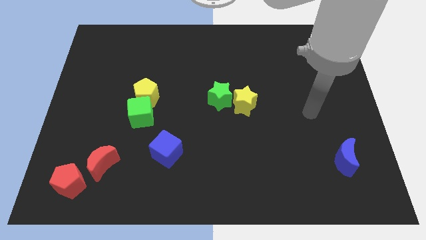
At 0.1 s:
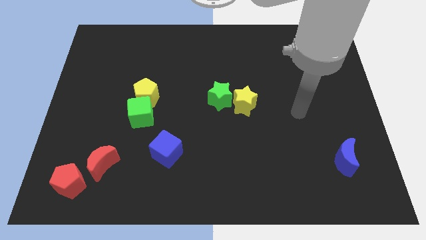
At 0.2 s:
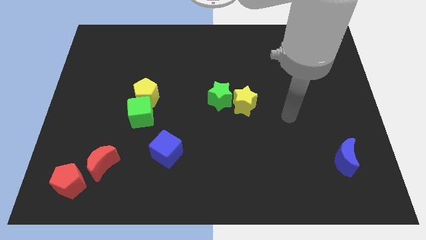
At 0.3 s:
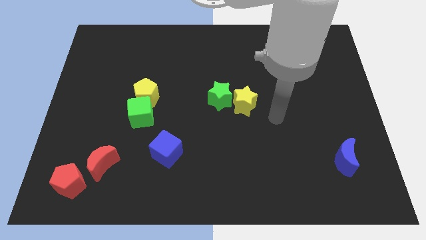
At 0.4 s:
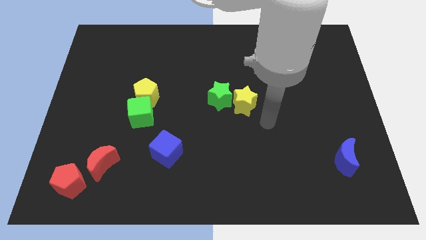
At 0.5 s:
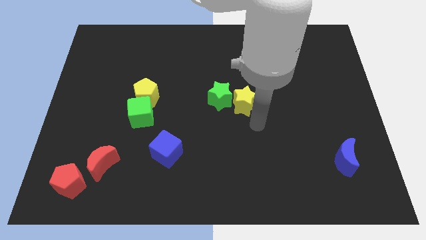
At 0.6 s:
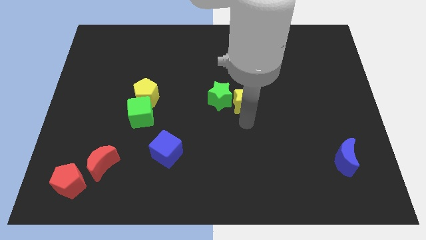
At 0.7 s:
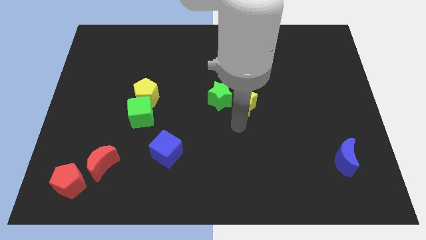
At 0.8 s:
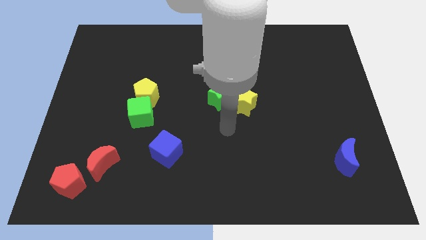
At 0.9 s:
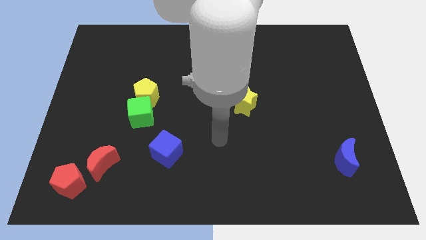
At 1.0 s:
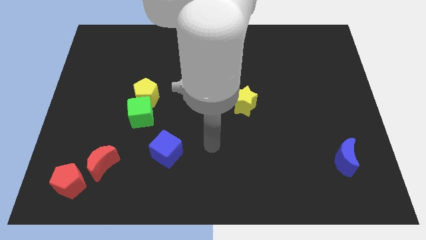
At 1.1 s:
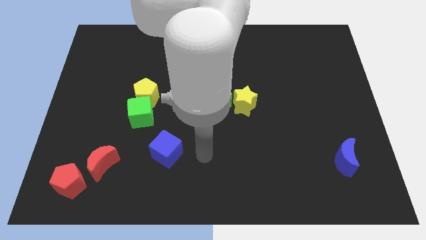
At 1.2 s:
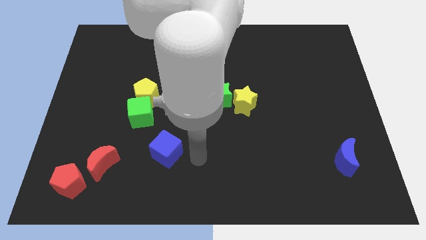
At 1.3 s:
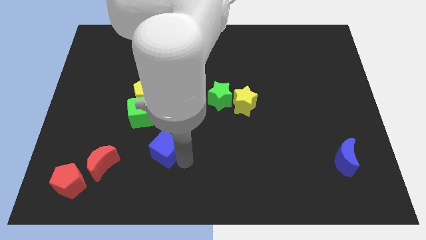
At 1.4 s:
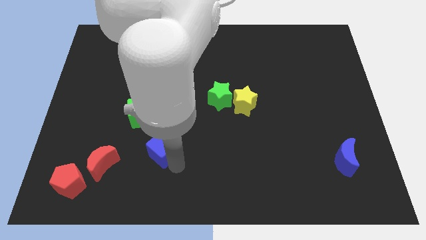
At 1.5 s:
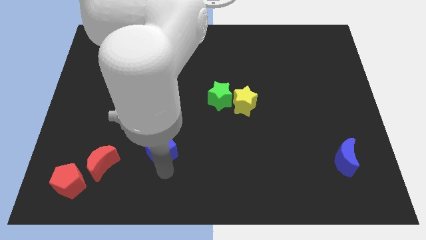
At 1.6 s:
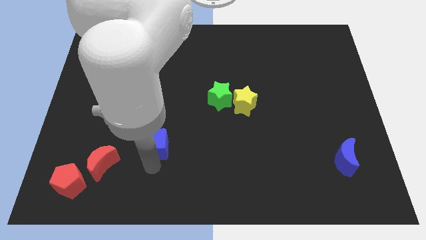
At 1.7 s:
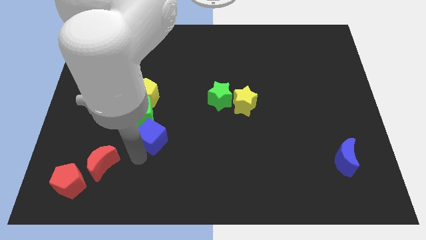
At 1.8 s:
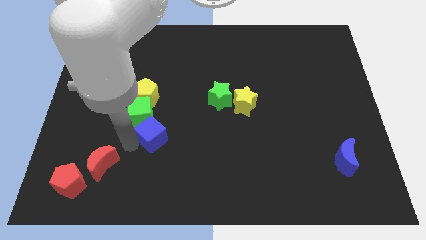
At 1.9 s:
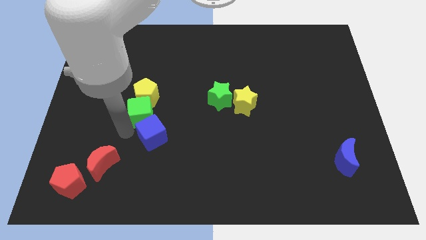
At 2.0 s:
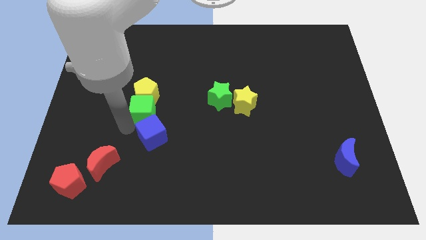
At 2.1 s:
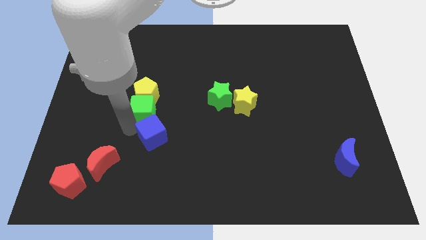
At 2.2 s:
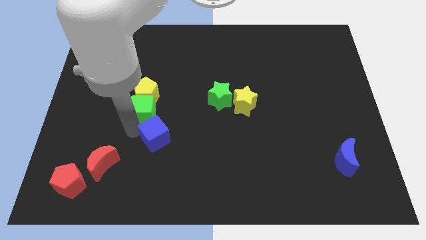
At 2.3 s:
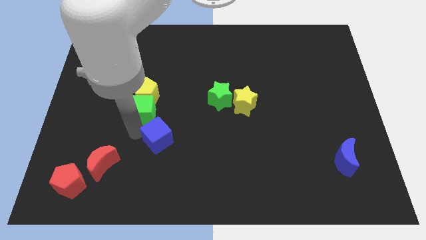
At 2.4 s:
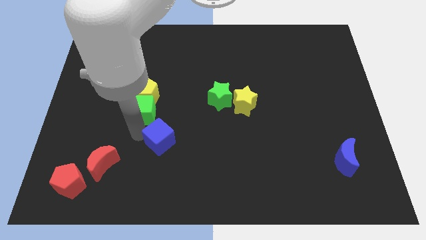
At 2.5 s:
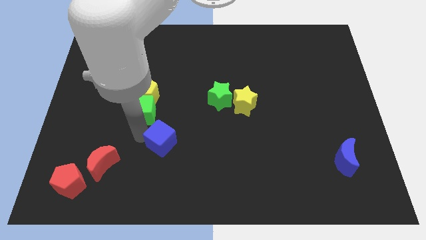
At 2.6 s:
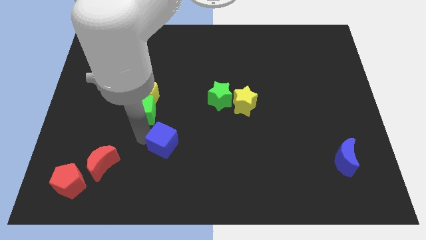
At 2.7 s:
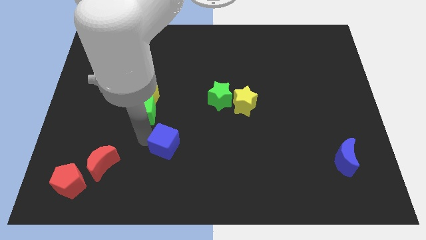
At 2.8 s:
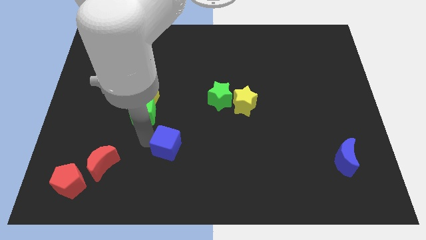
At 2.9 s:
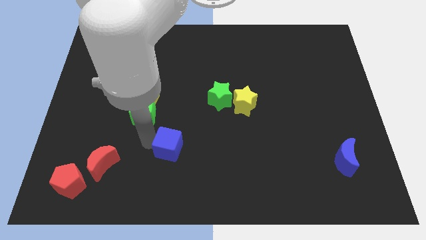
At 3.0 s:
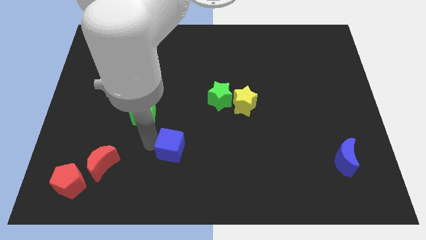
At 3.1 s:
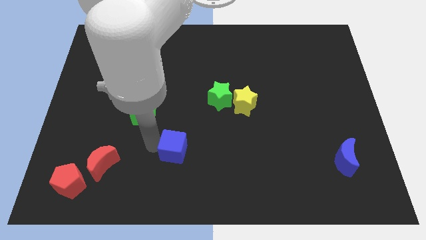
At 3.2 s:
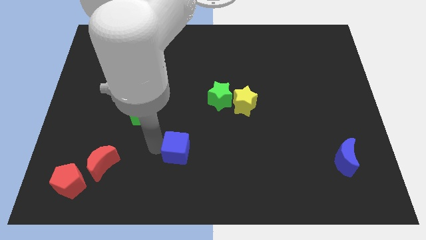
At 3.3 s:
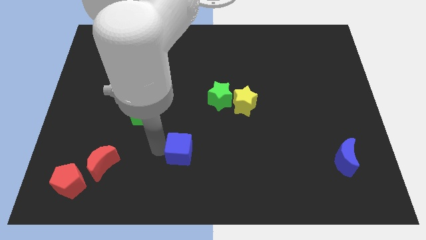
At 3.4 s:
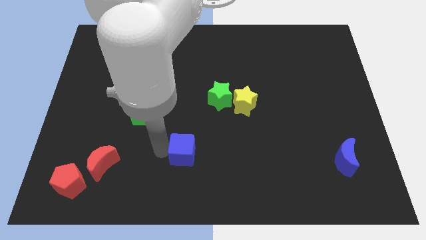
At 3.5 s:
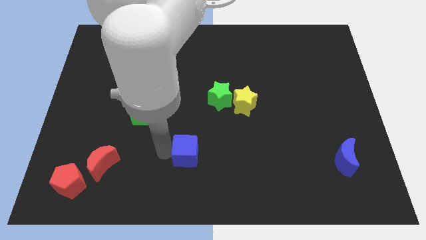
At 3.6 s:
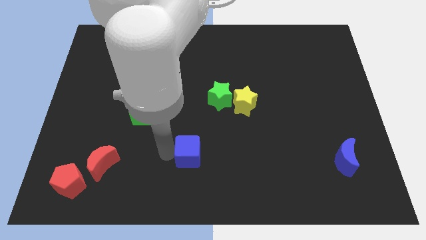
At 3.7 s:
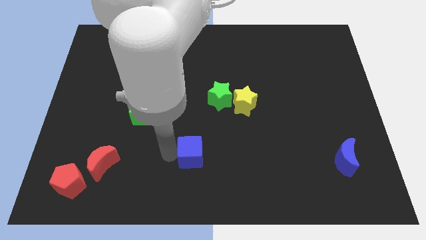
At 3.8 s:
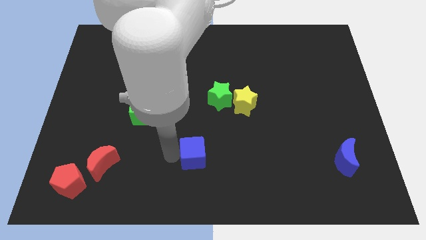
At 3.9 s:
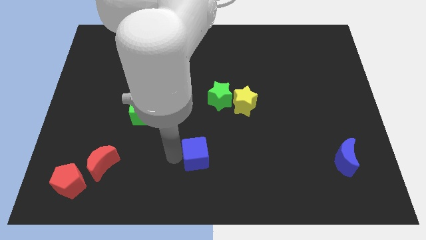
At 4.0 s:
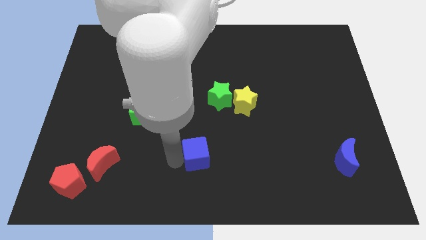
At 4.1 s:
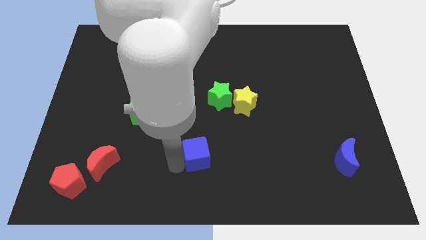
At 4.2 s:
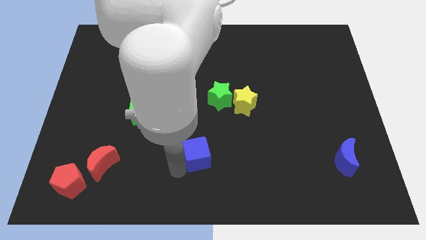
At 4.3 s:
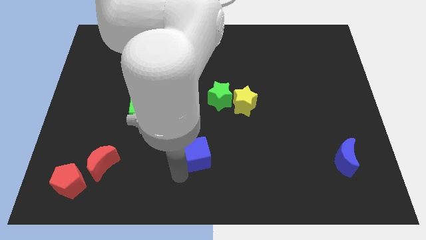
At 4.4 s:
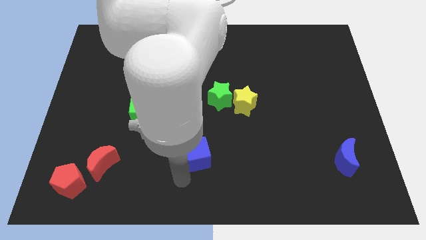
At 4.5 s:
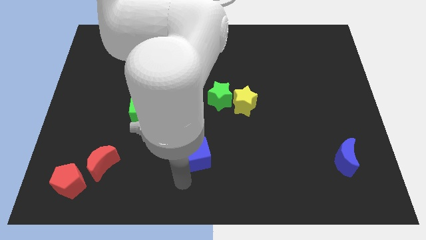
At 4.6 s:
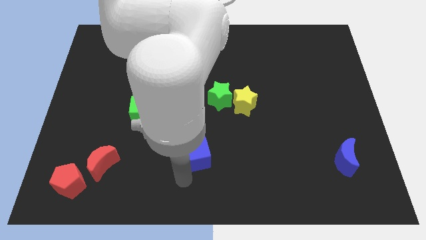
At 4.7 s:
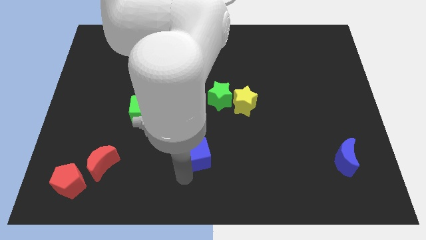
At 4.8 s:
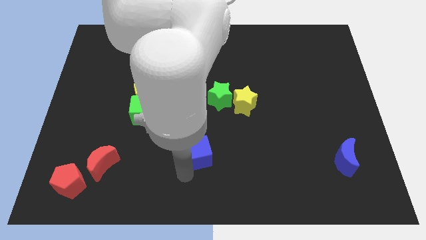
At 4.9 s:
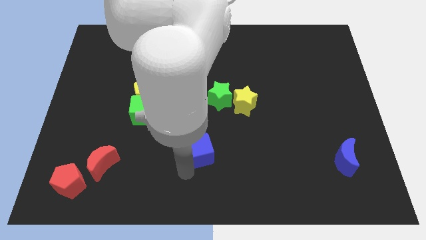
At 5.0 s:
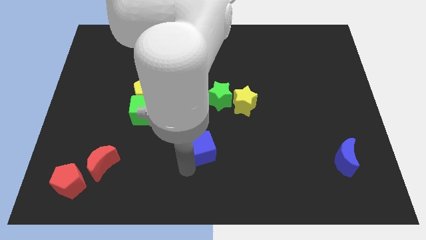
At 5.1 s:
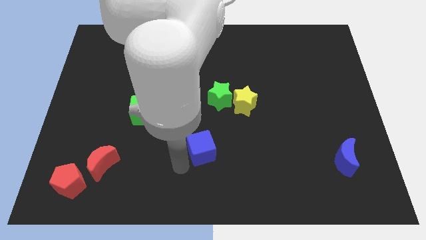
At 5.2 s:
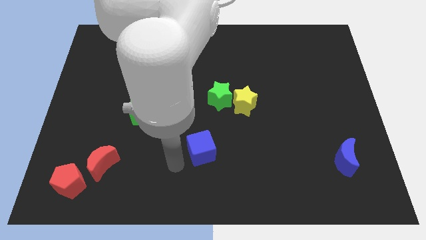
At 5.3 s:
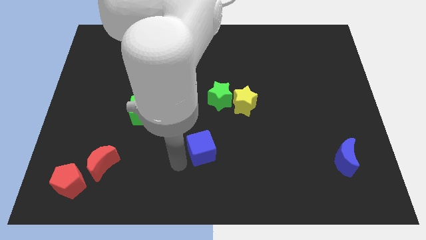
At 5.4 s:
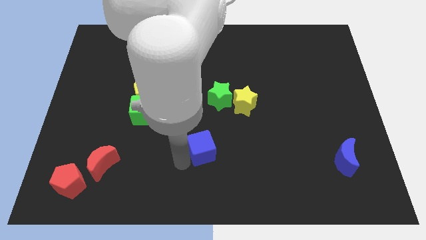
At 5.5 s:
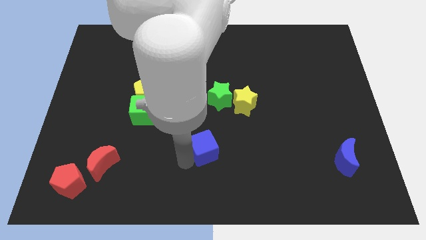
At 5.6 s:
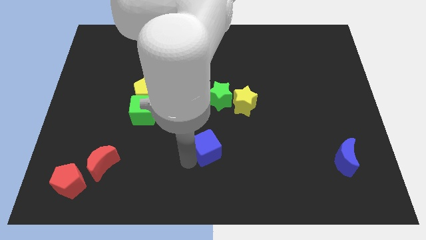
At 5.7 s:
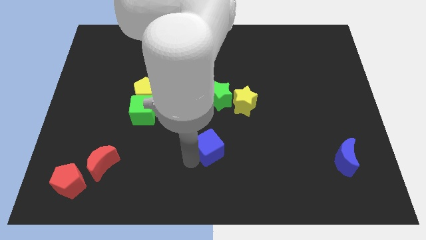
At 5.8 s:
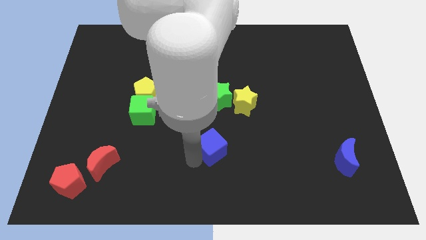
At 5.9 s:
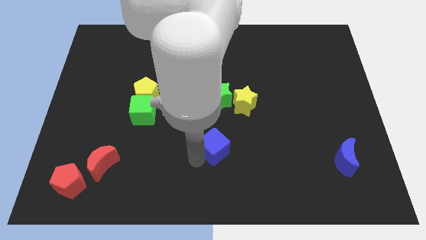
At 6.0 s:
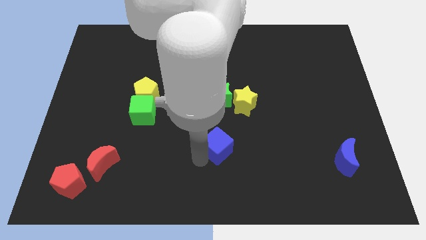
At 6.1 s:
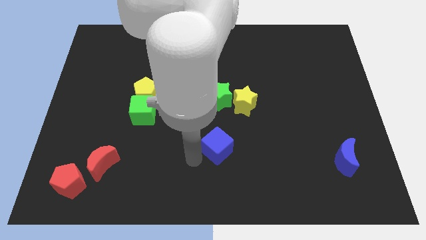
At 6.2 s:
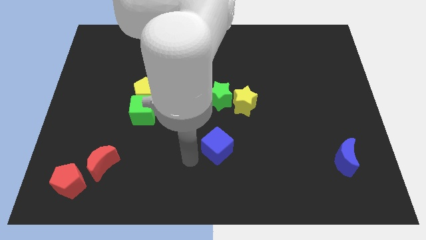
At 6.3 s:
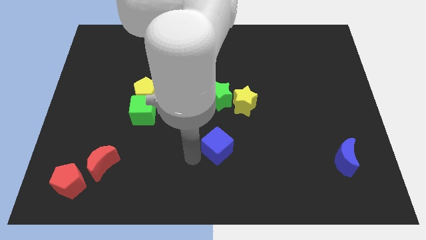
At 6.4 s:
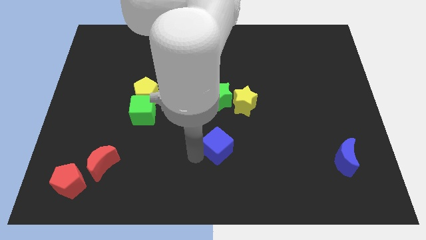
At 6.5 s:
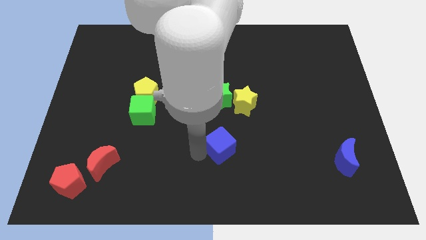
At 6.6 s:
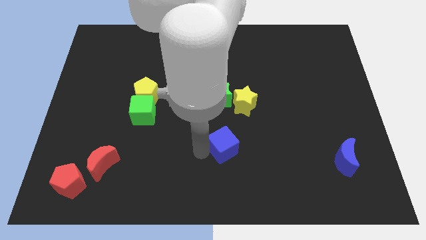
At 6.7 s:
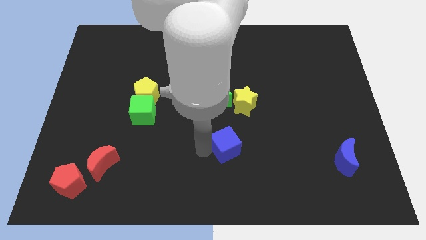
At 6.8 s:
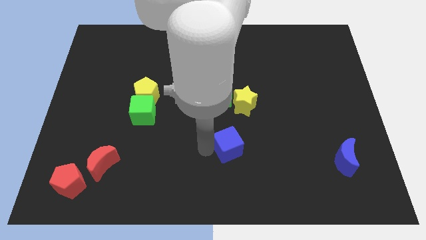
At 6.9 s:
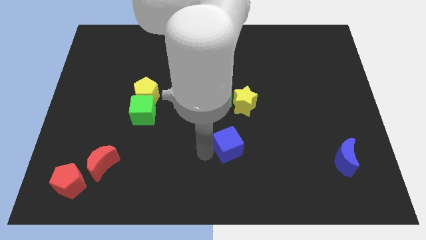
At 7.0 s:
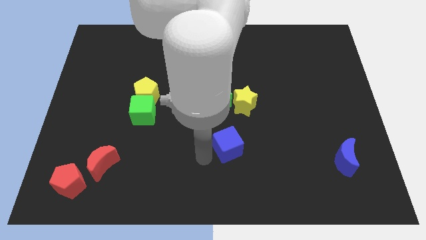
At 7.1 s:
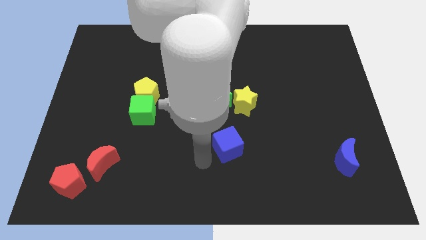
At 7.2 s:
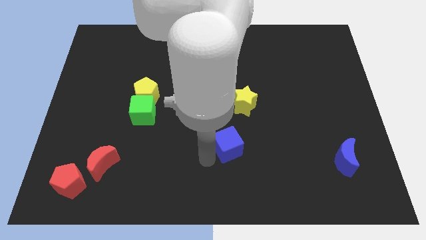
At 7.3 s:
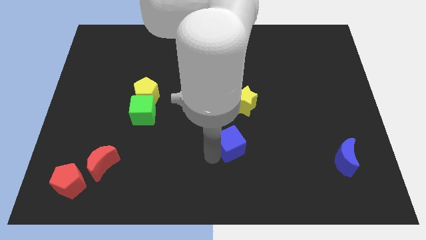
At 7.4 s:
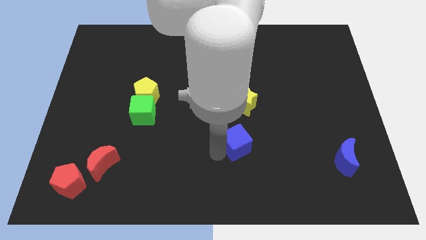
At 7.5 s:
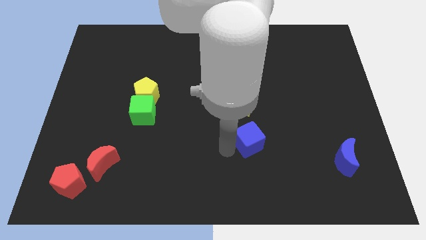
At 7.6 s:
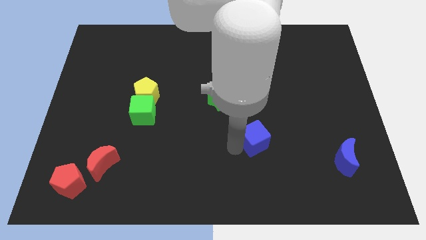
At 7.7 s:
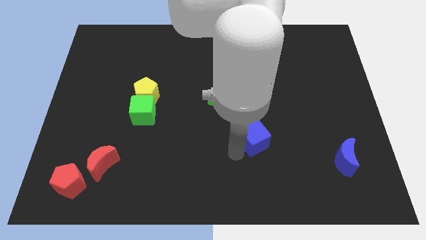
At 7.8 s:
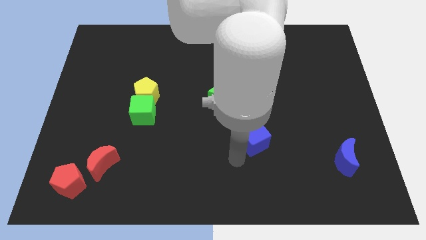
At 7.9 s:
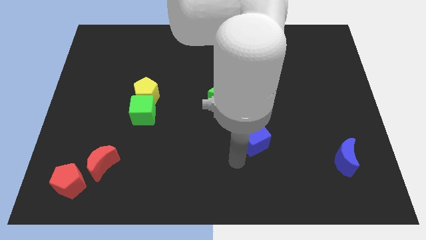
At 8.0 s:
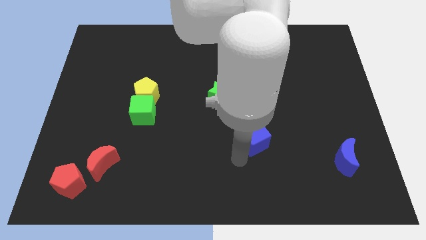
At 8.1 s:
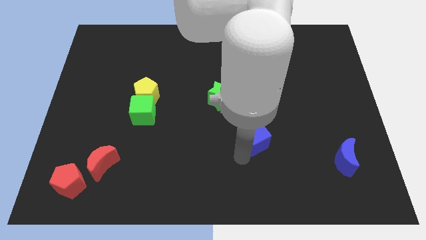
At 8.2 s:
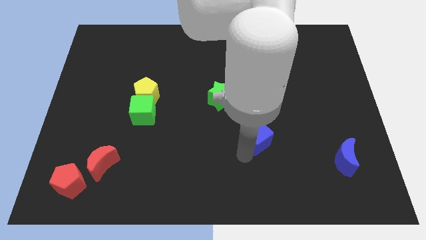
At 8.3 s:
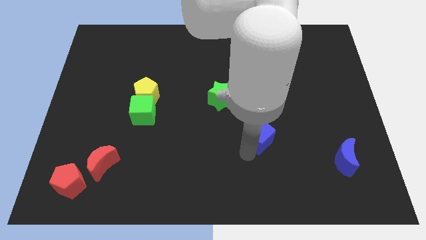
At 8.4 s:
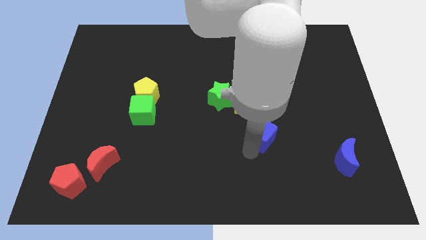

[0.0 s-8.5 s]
slide the blue cube to the bottom right of the yellow star
